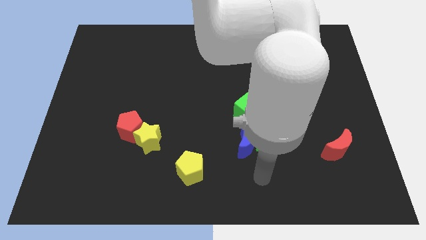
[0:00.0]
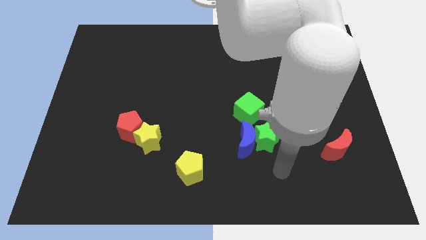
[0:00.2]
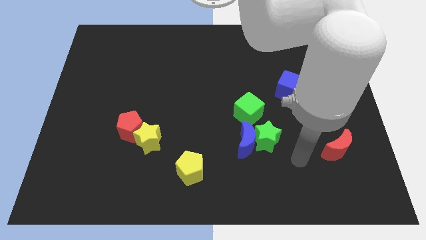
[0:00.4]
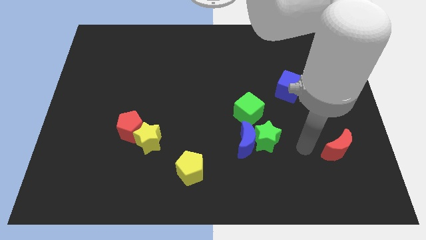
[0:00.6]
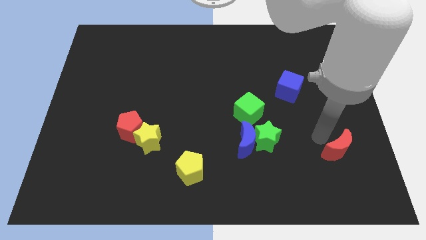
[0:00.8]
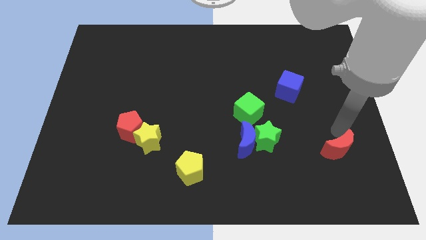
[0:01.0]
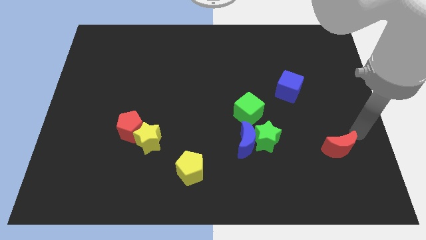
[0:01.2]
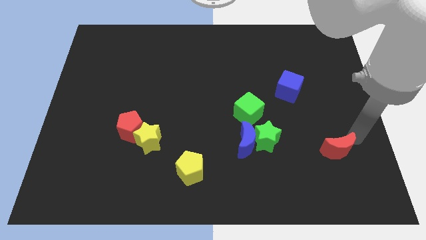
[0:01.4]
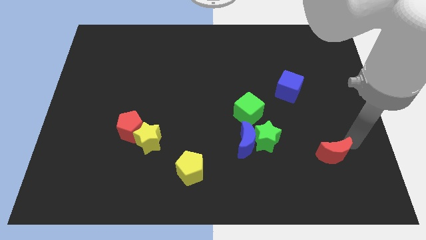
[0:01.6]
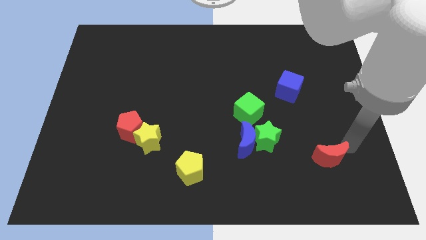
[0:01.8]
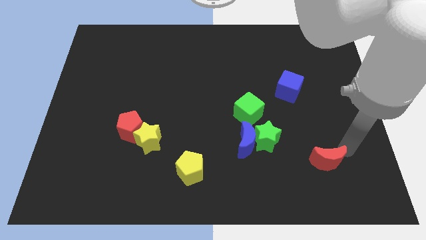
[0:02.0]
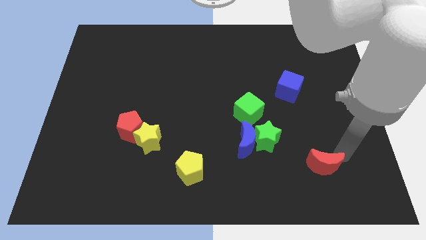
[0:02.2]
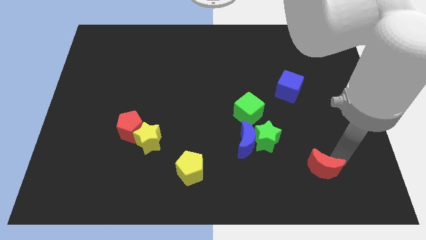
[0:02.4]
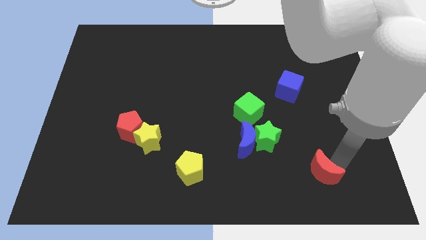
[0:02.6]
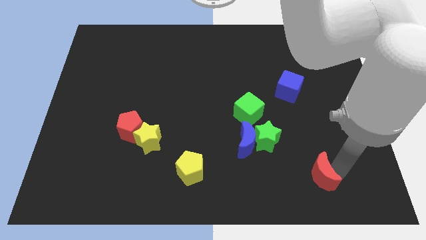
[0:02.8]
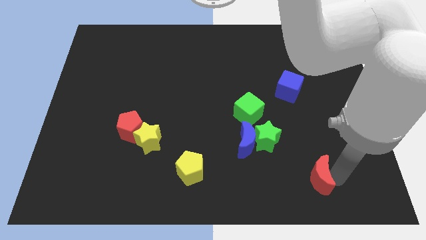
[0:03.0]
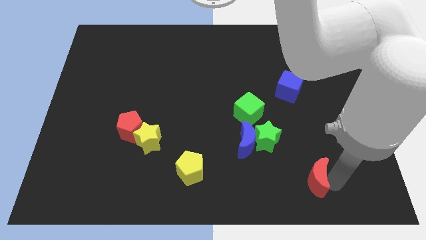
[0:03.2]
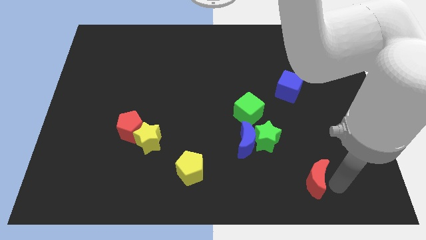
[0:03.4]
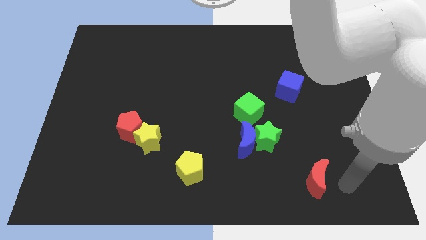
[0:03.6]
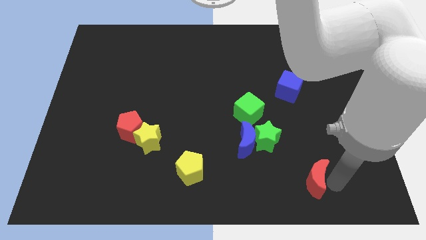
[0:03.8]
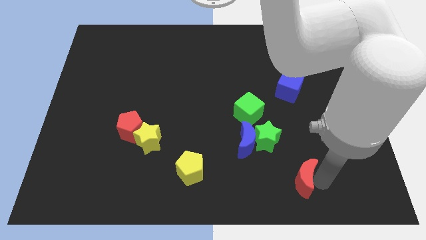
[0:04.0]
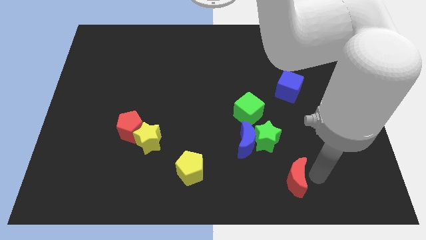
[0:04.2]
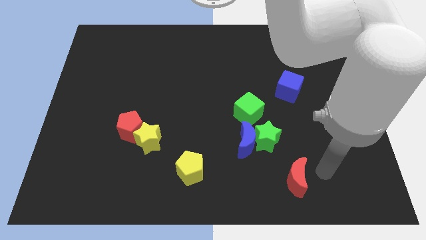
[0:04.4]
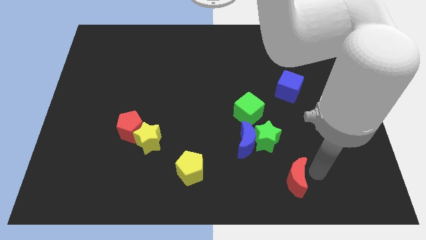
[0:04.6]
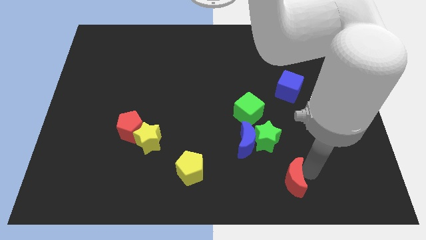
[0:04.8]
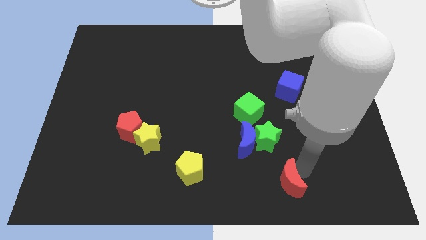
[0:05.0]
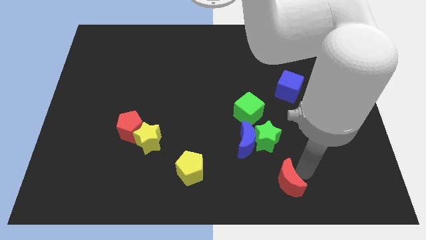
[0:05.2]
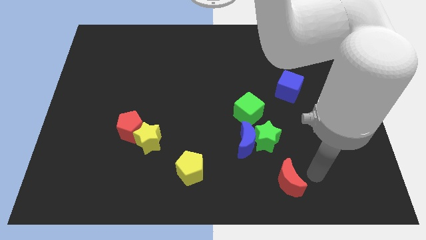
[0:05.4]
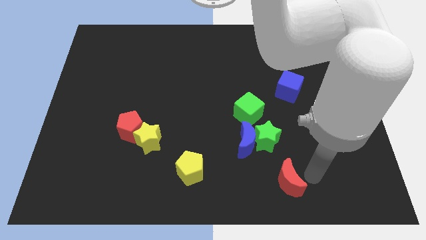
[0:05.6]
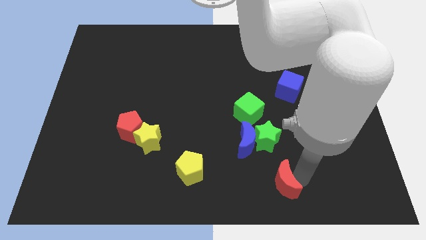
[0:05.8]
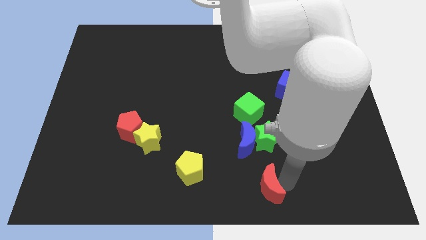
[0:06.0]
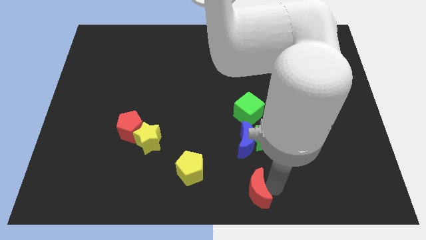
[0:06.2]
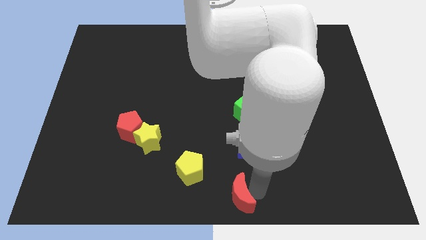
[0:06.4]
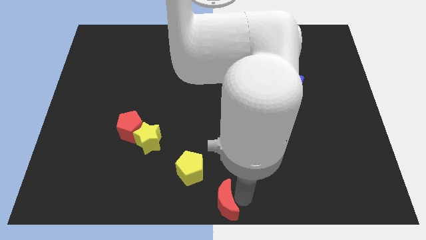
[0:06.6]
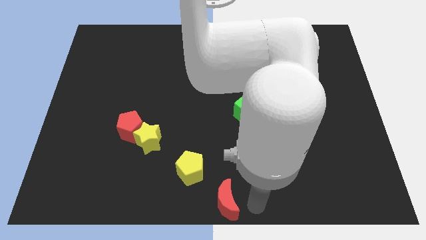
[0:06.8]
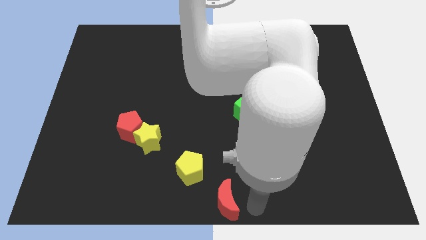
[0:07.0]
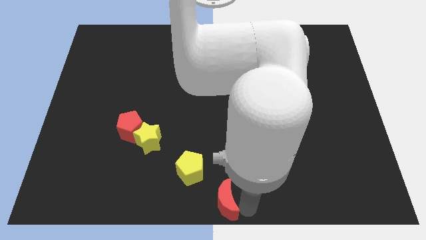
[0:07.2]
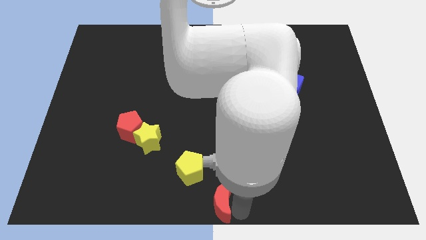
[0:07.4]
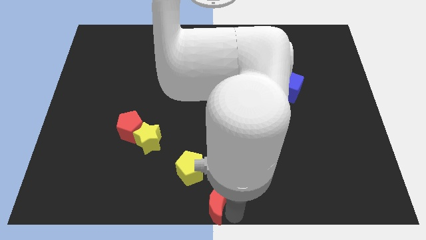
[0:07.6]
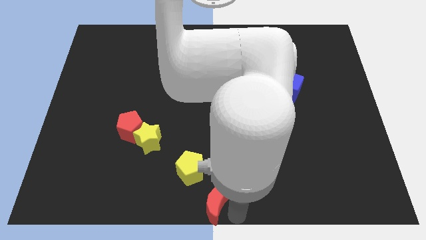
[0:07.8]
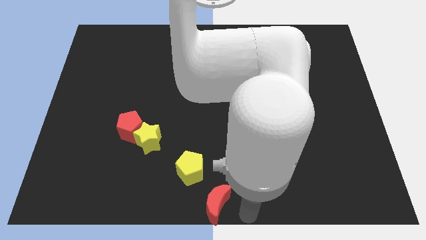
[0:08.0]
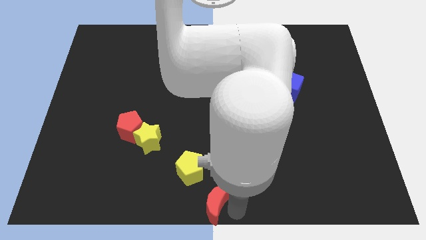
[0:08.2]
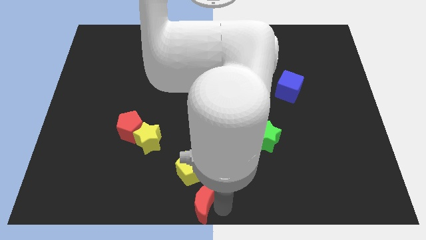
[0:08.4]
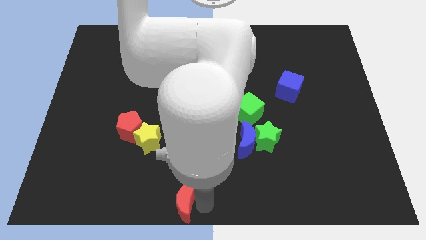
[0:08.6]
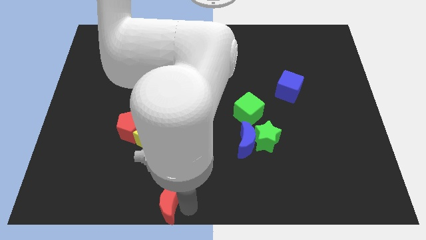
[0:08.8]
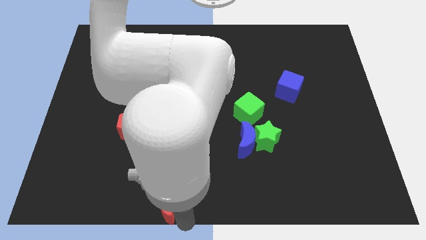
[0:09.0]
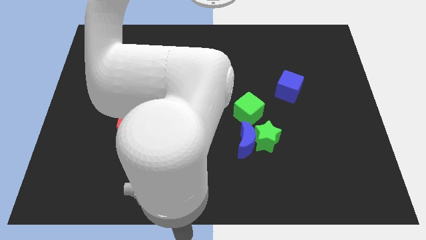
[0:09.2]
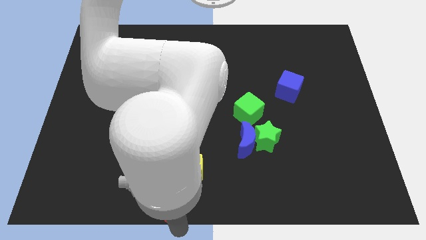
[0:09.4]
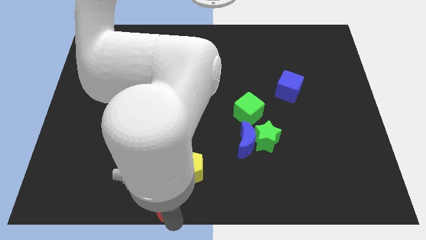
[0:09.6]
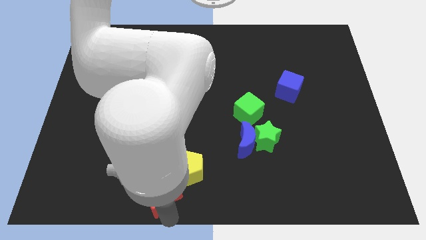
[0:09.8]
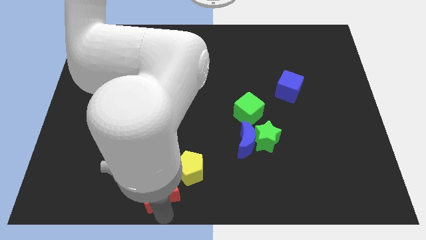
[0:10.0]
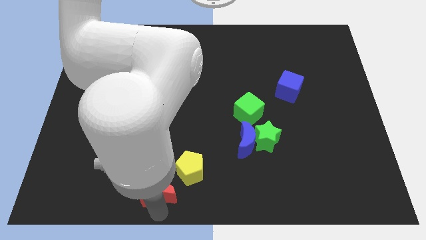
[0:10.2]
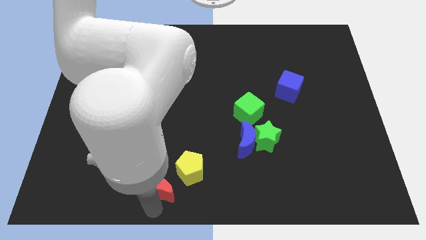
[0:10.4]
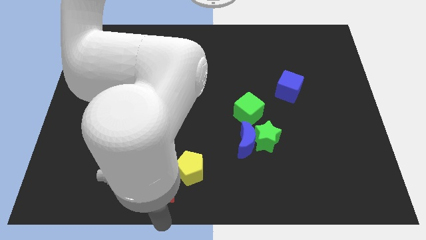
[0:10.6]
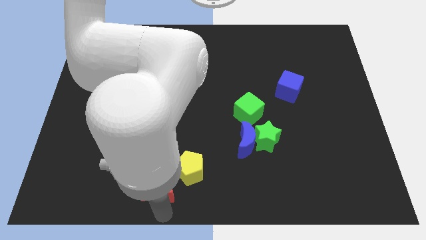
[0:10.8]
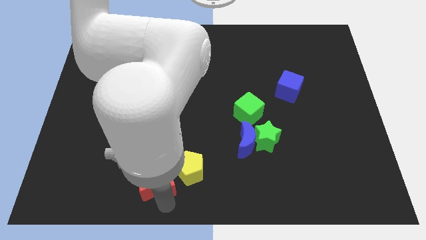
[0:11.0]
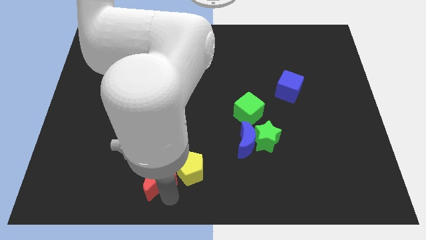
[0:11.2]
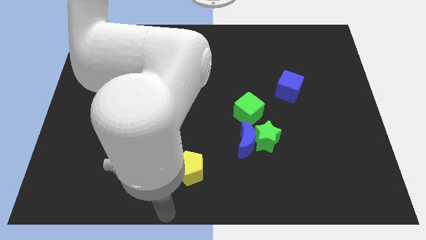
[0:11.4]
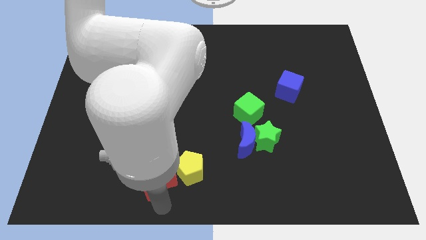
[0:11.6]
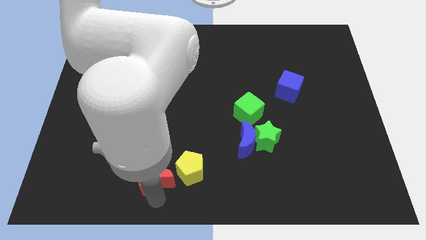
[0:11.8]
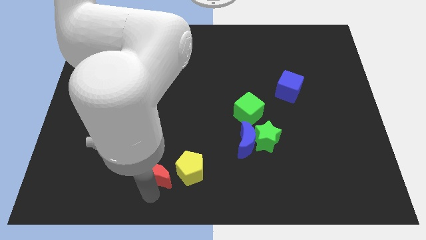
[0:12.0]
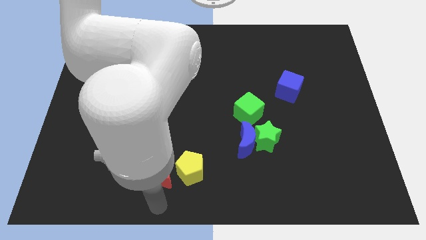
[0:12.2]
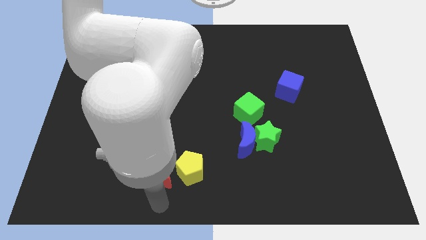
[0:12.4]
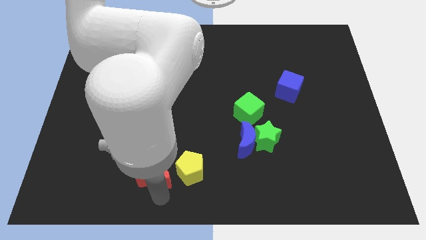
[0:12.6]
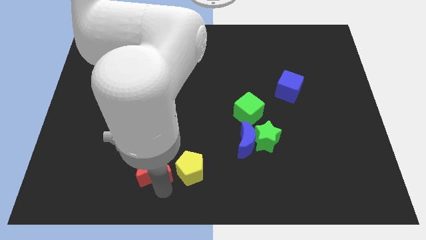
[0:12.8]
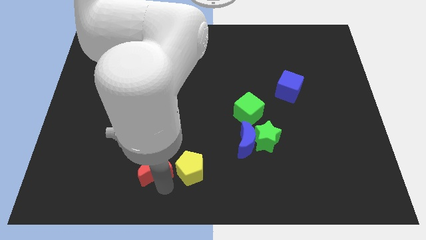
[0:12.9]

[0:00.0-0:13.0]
slide the red moon diagonally down and to the right of the red pentagon

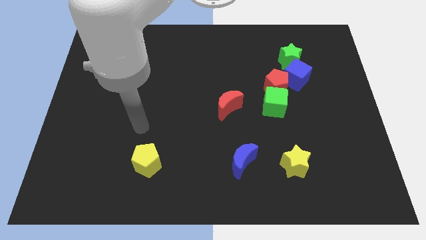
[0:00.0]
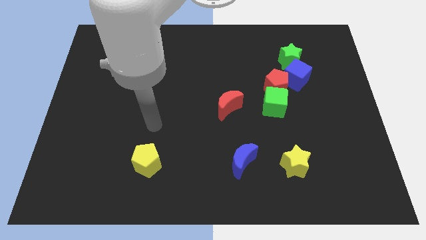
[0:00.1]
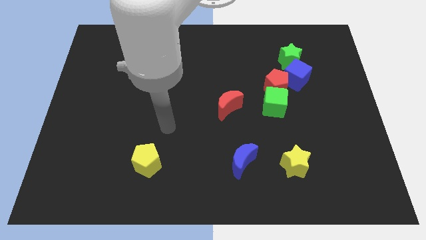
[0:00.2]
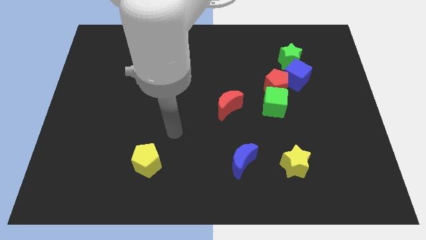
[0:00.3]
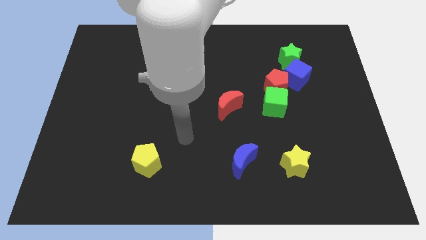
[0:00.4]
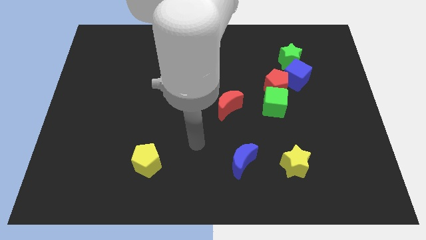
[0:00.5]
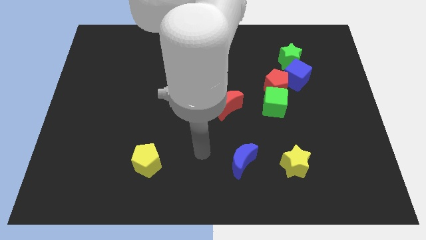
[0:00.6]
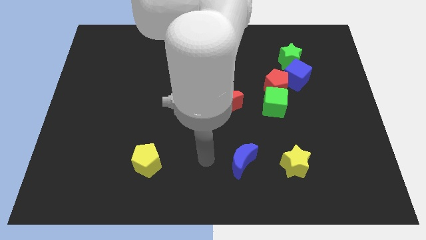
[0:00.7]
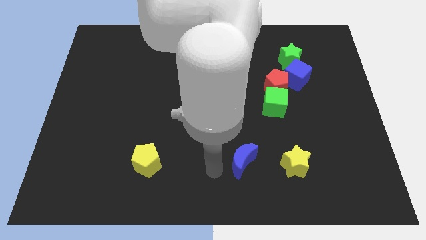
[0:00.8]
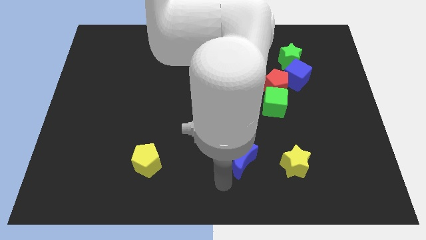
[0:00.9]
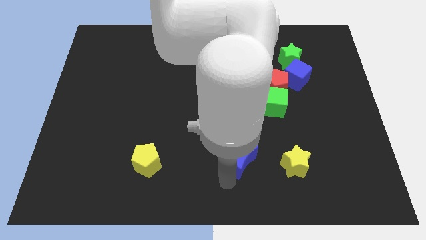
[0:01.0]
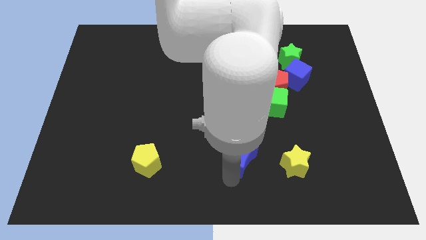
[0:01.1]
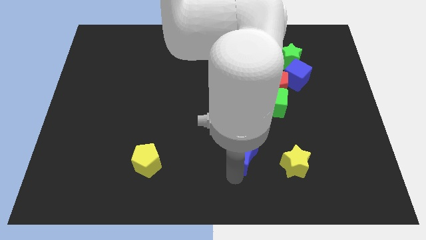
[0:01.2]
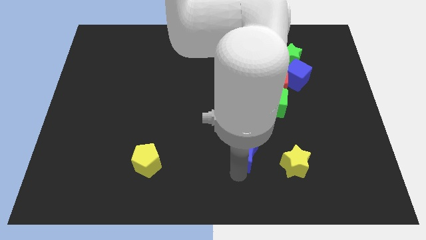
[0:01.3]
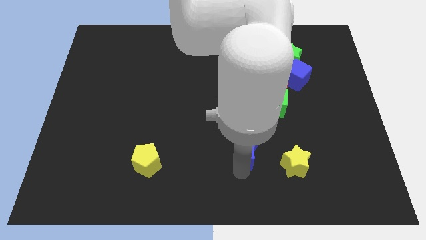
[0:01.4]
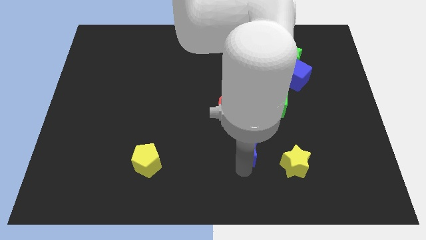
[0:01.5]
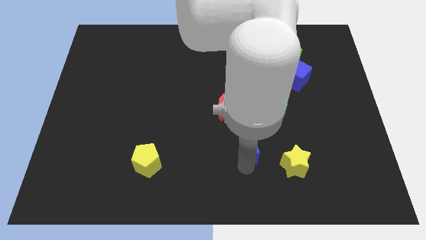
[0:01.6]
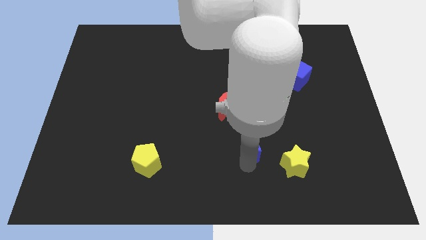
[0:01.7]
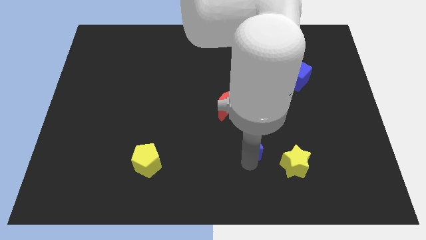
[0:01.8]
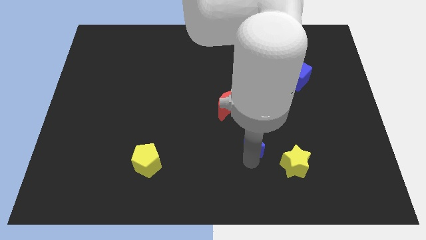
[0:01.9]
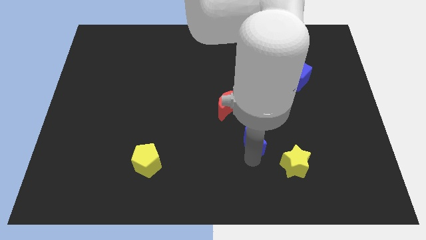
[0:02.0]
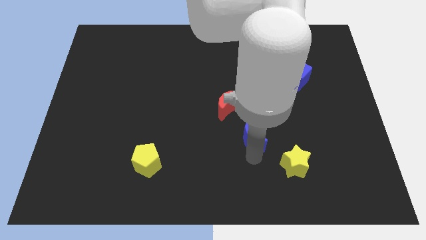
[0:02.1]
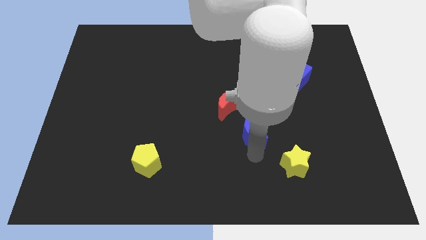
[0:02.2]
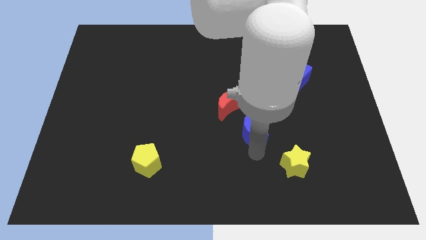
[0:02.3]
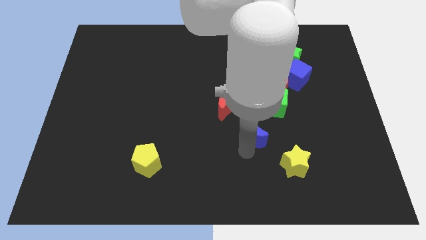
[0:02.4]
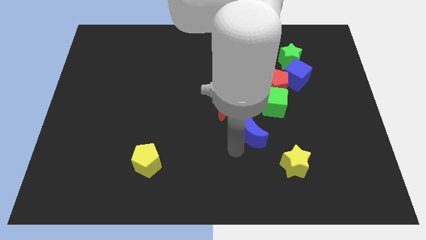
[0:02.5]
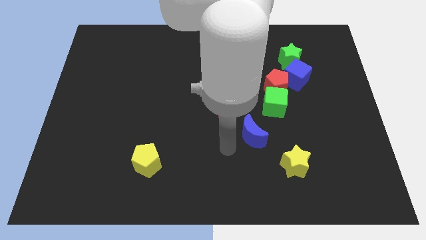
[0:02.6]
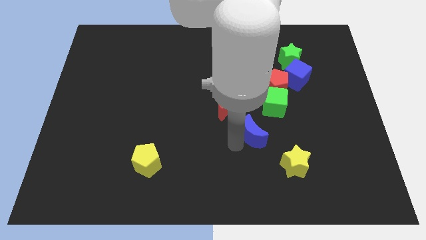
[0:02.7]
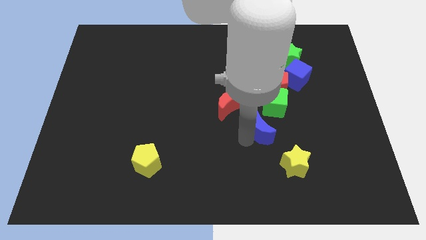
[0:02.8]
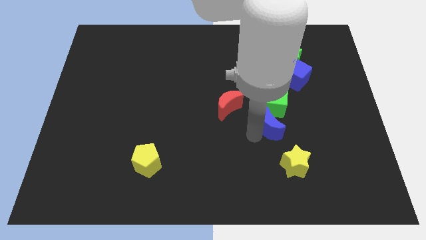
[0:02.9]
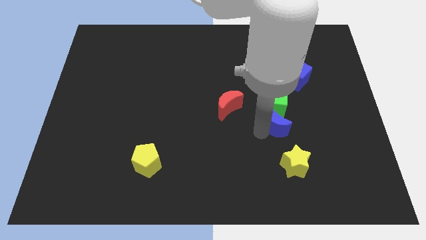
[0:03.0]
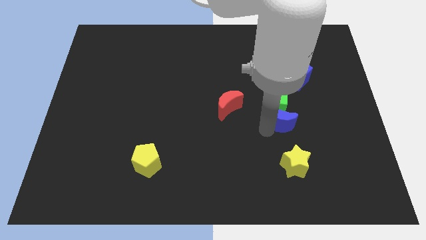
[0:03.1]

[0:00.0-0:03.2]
push the blue moon to the right of the red moon
